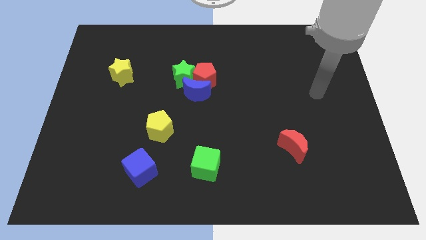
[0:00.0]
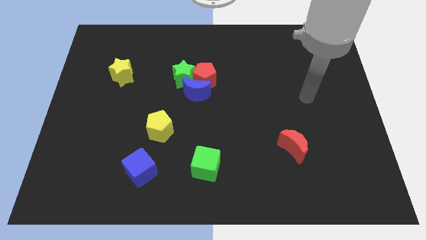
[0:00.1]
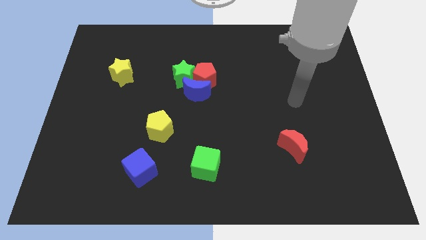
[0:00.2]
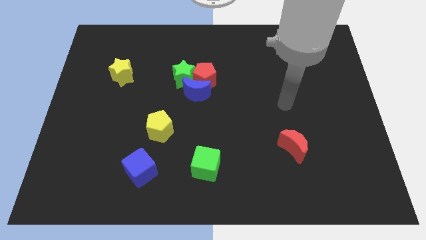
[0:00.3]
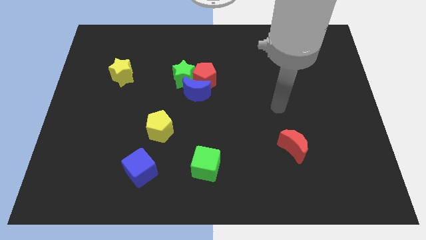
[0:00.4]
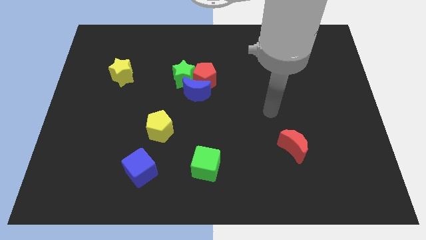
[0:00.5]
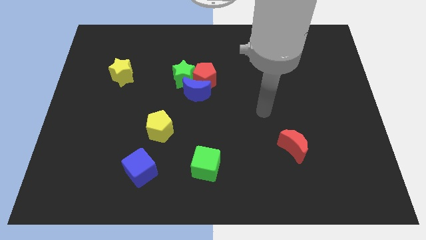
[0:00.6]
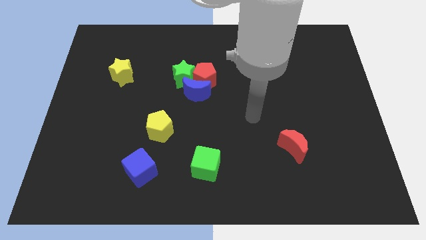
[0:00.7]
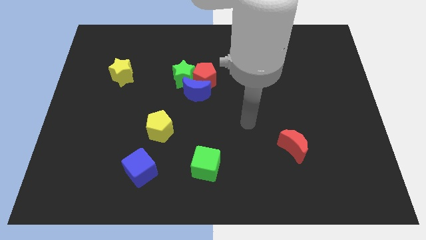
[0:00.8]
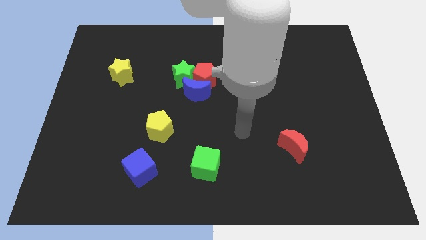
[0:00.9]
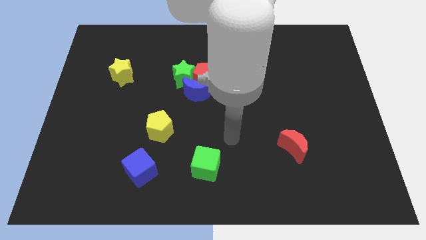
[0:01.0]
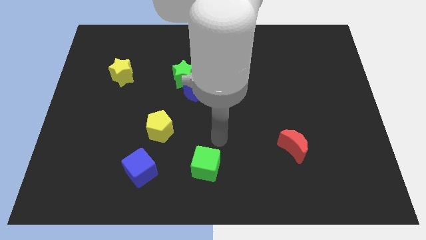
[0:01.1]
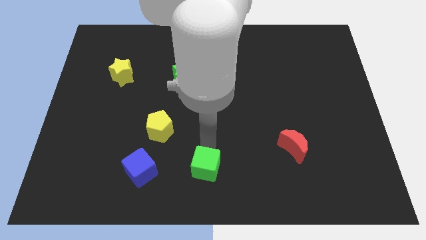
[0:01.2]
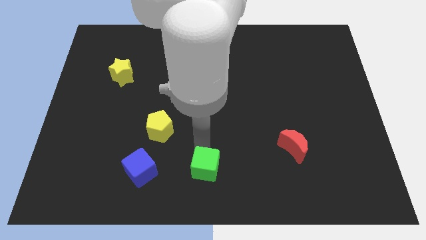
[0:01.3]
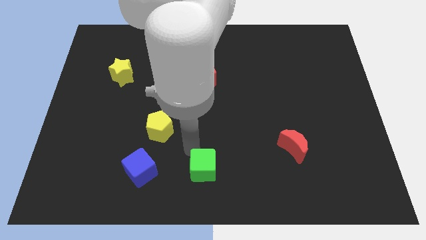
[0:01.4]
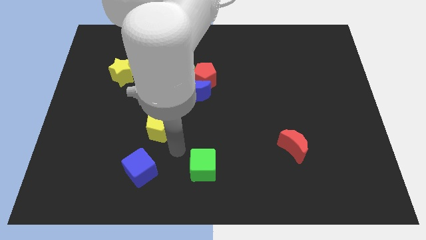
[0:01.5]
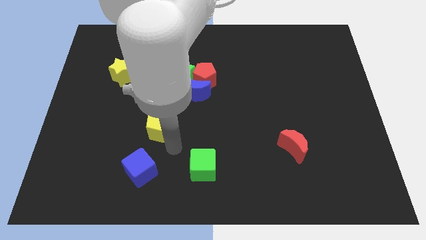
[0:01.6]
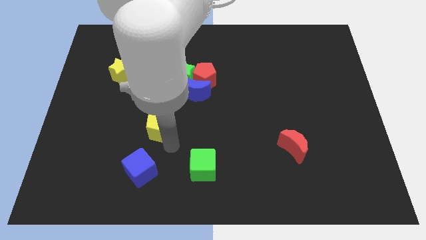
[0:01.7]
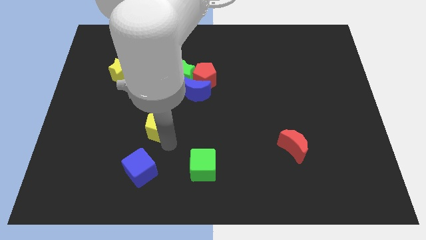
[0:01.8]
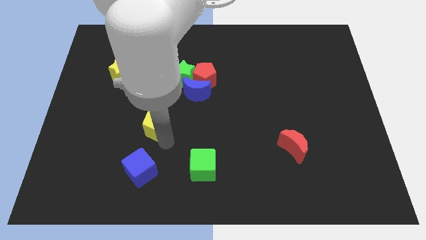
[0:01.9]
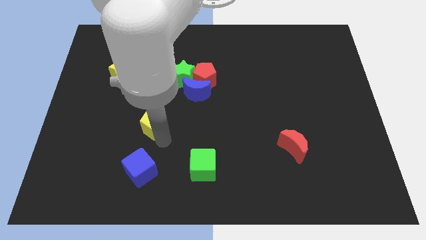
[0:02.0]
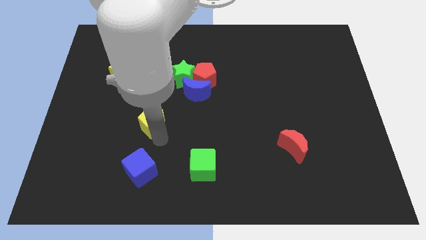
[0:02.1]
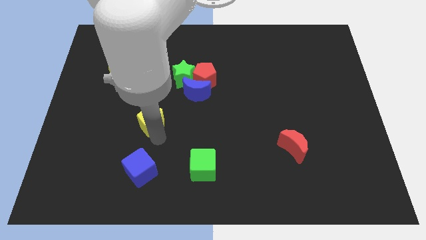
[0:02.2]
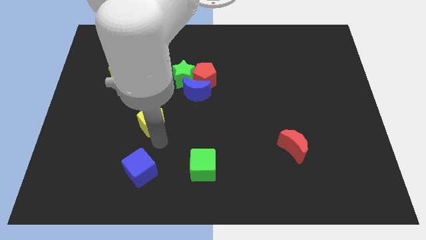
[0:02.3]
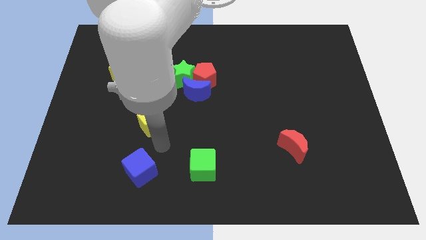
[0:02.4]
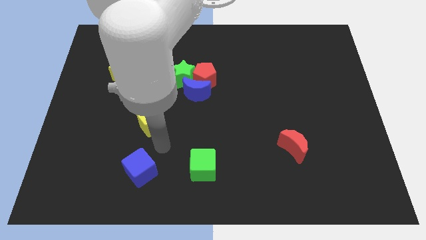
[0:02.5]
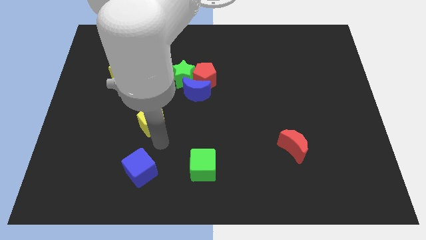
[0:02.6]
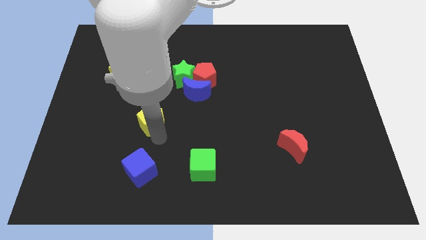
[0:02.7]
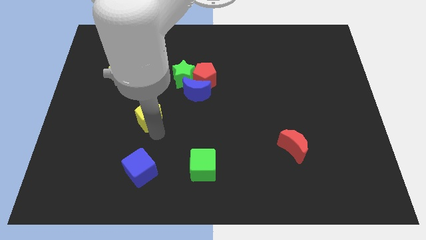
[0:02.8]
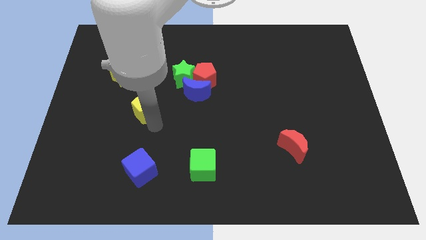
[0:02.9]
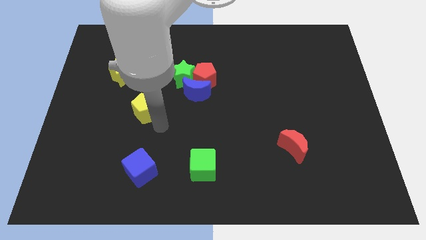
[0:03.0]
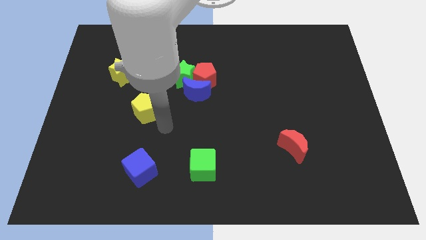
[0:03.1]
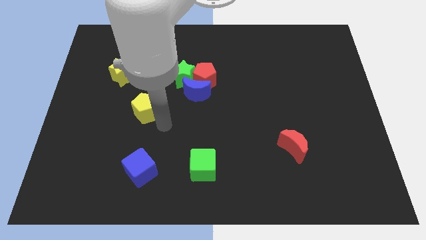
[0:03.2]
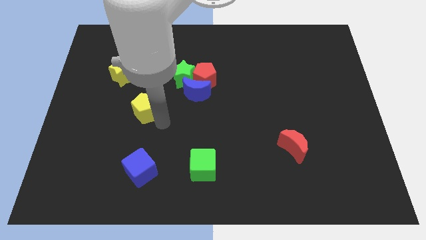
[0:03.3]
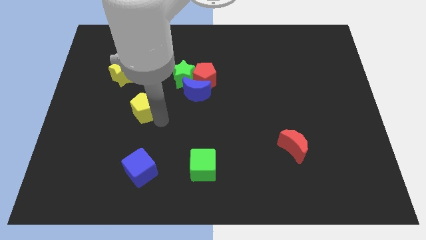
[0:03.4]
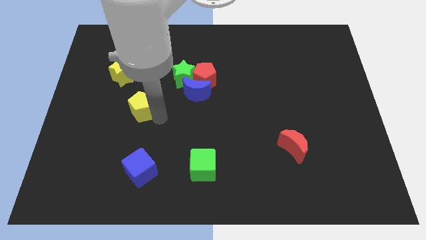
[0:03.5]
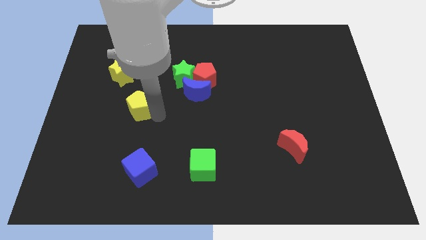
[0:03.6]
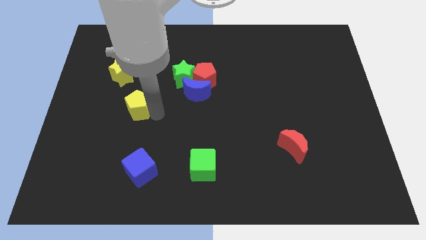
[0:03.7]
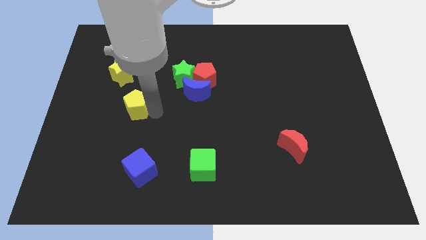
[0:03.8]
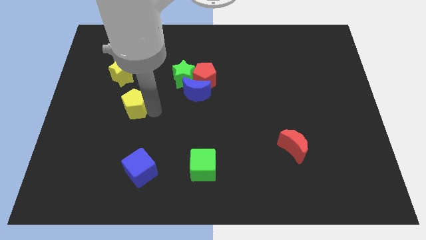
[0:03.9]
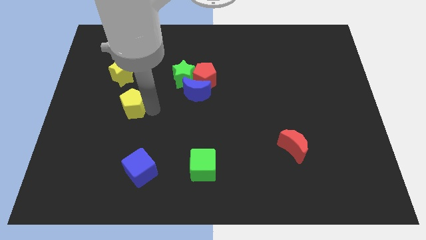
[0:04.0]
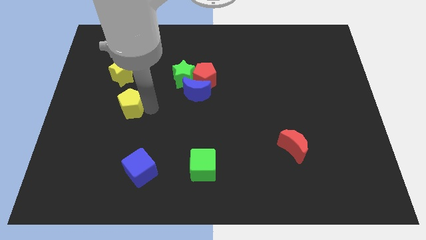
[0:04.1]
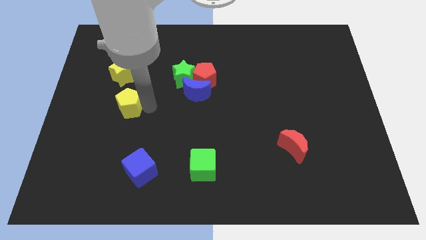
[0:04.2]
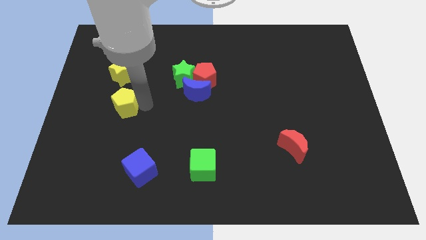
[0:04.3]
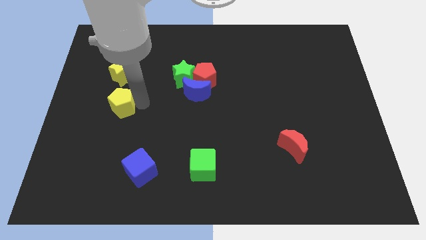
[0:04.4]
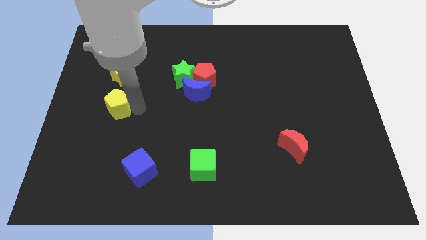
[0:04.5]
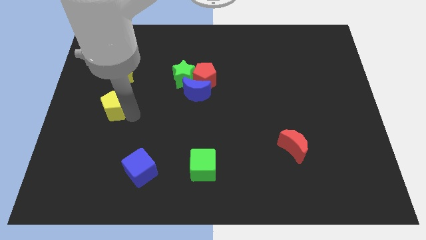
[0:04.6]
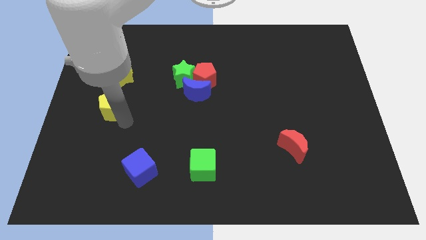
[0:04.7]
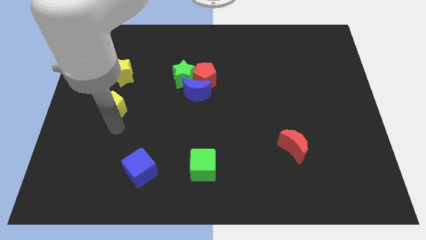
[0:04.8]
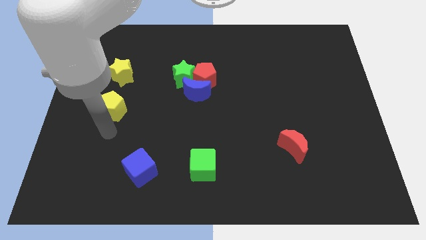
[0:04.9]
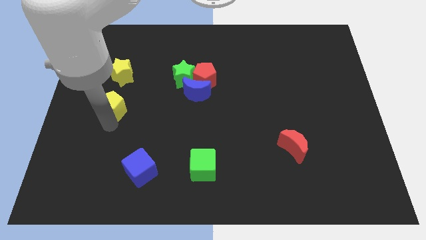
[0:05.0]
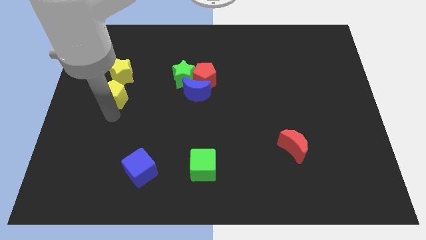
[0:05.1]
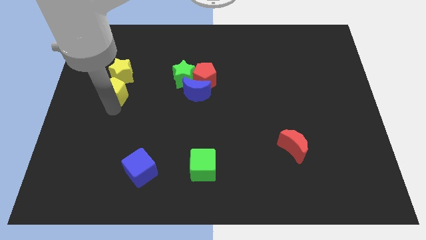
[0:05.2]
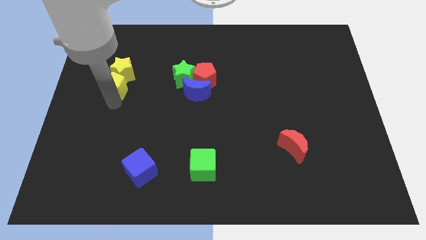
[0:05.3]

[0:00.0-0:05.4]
slide the yellow pentagon towards the yellow star
